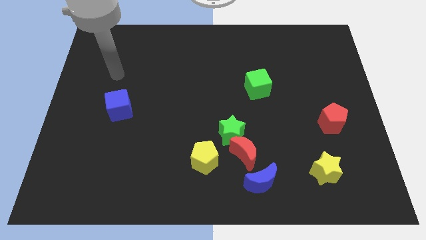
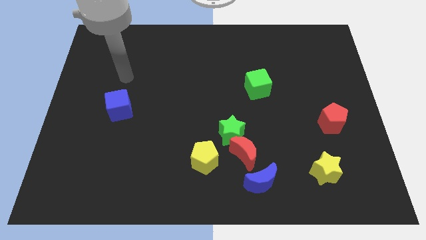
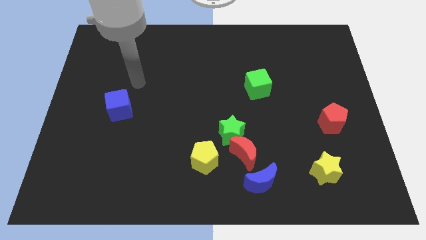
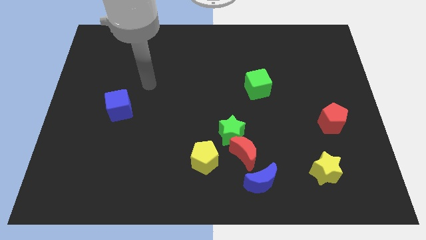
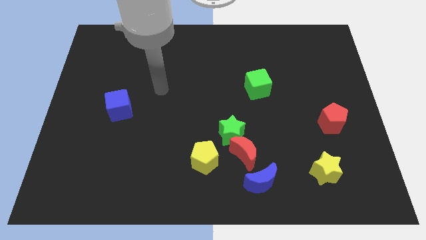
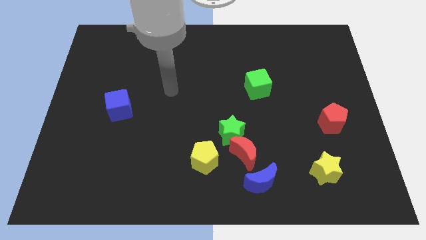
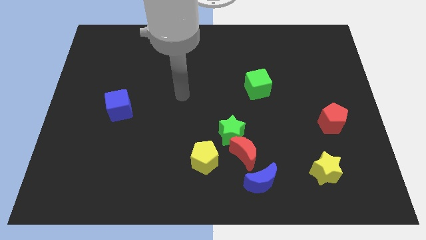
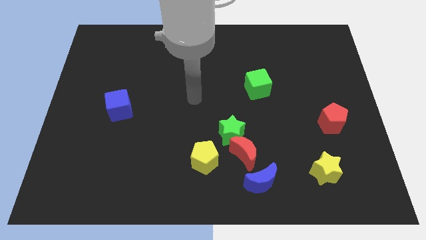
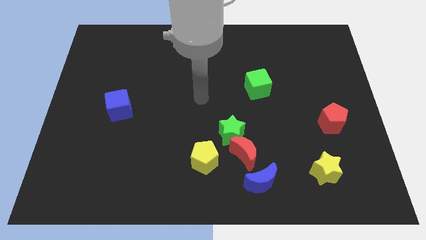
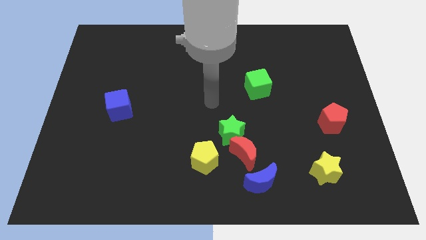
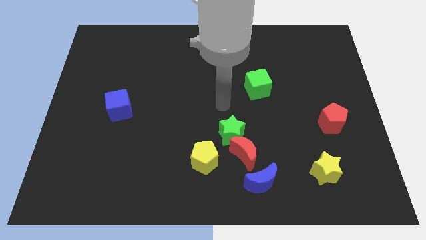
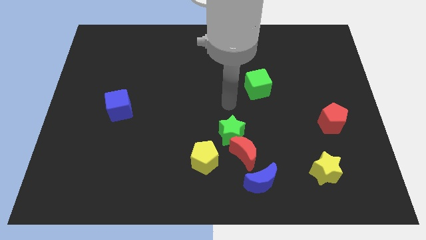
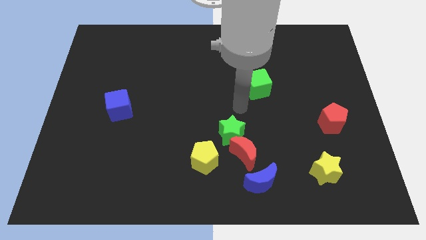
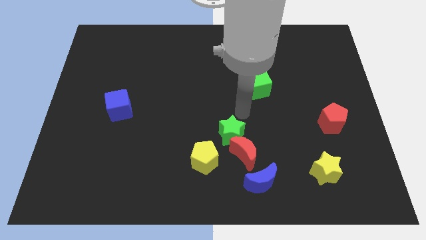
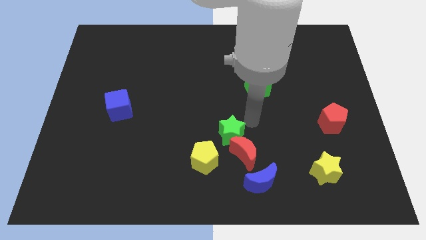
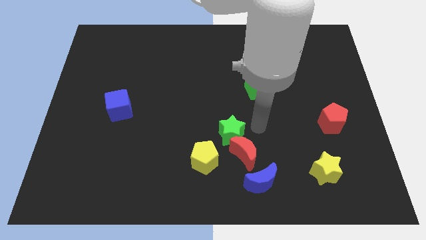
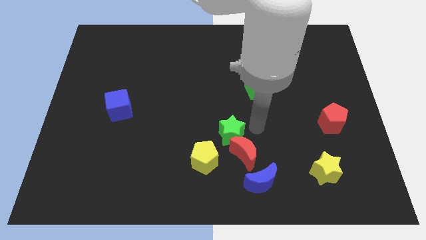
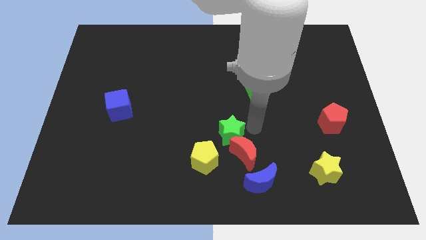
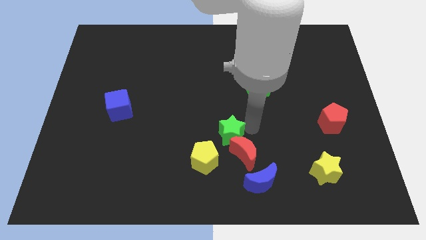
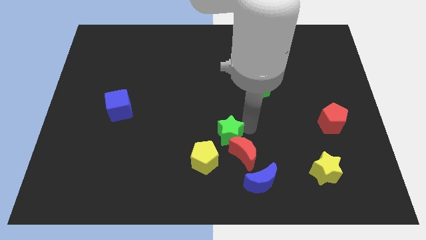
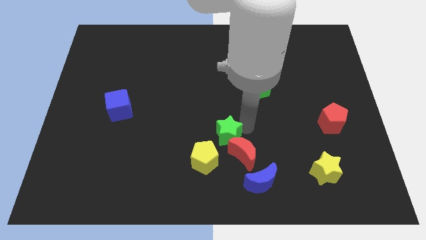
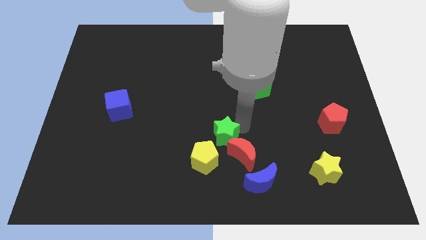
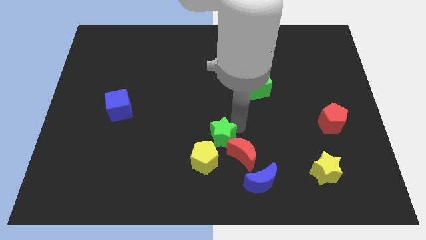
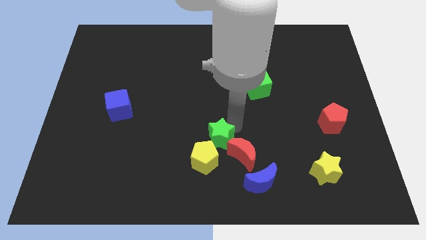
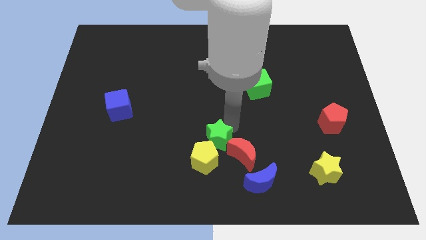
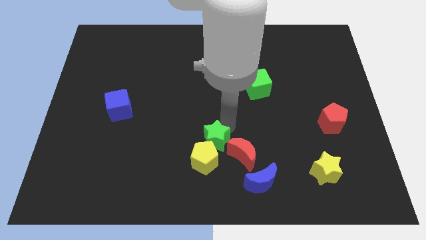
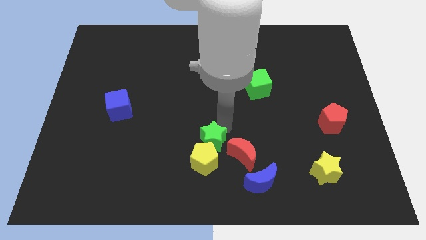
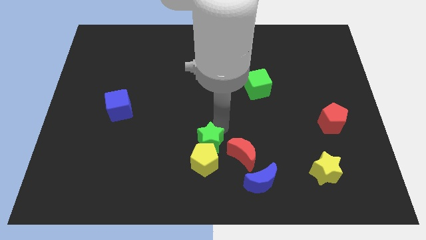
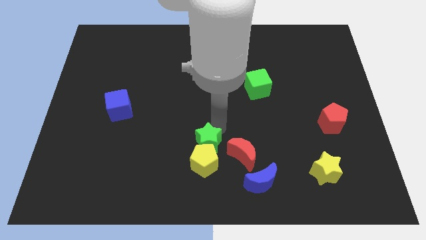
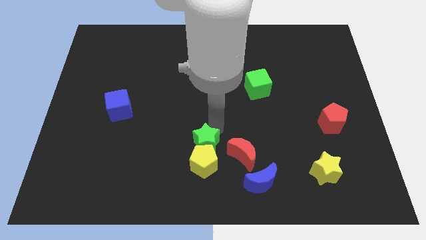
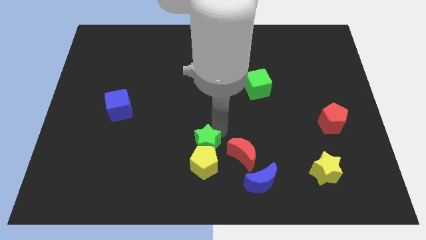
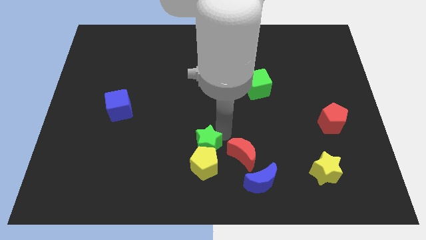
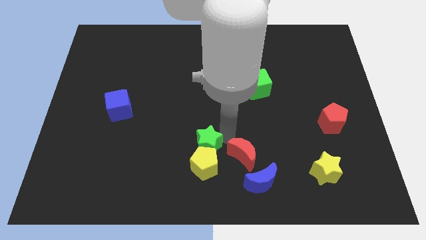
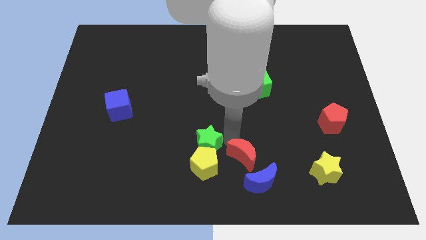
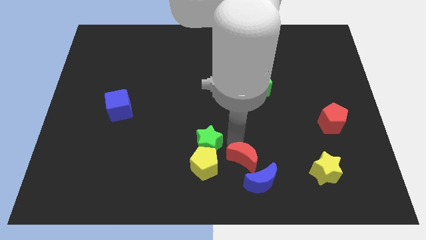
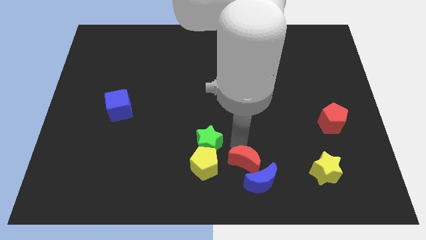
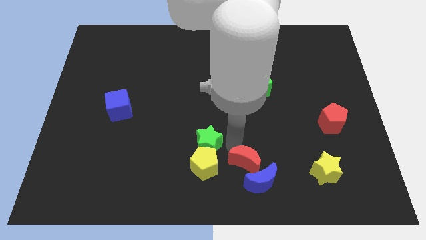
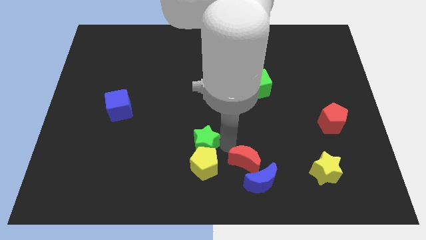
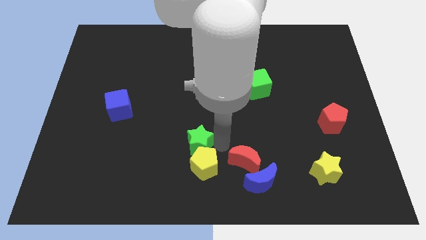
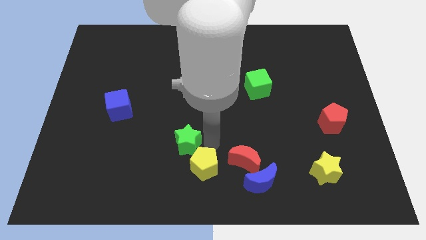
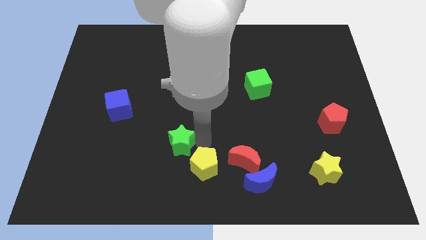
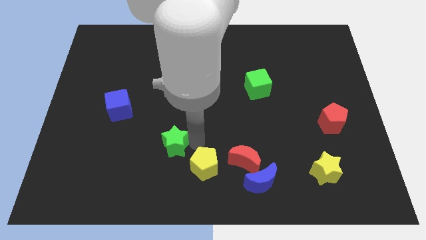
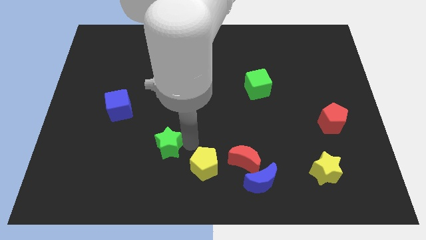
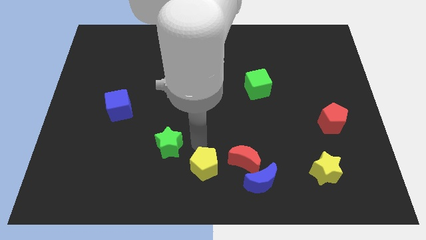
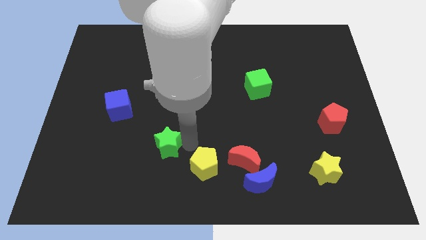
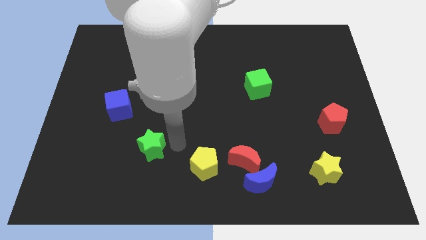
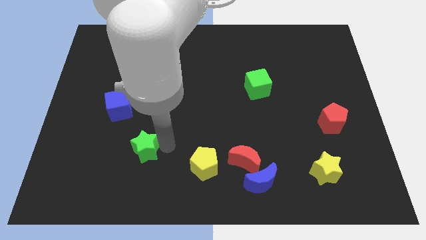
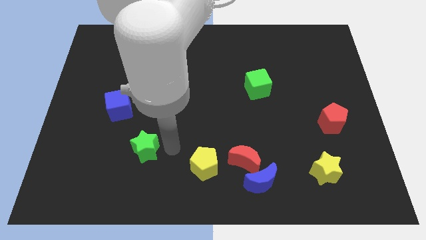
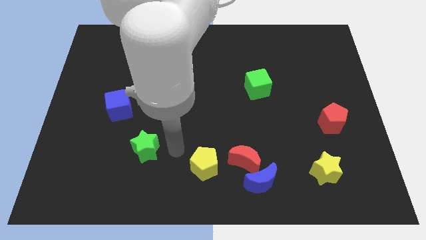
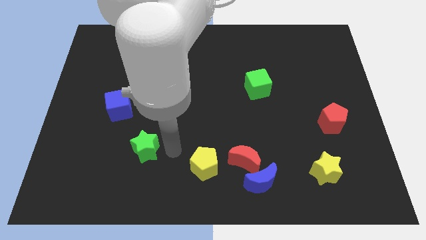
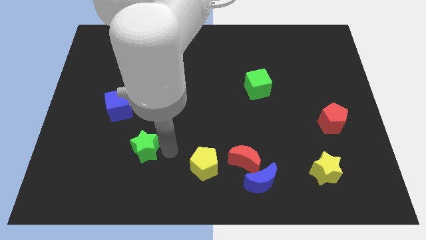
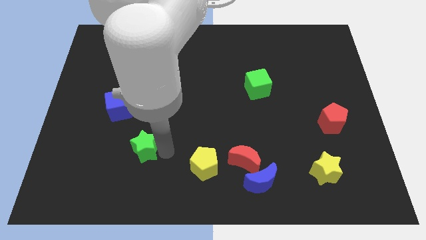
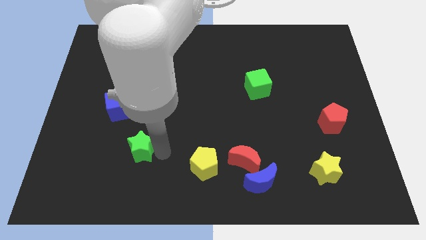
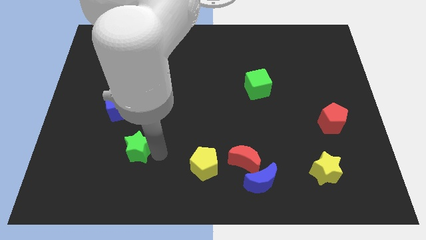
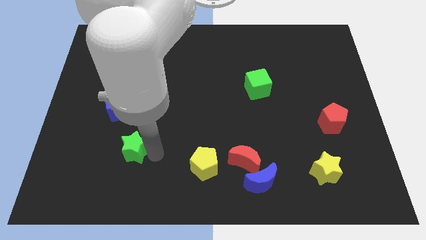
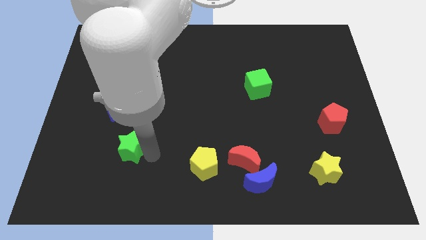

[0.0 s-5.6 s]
put the green star to the bottom side of the blue cube

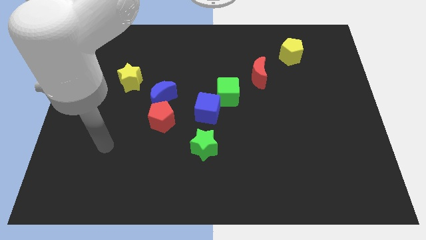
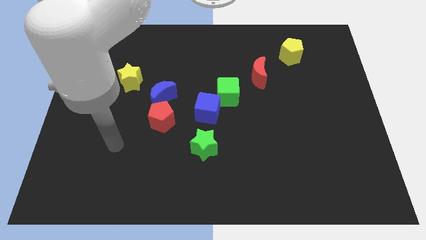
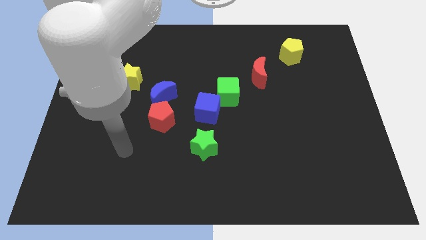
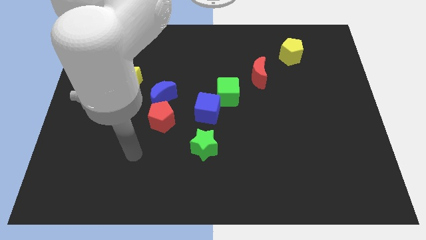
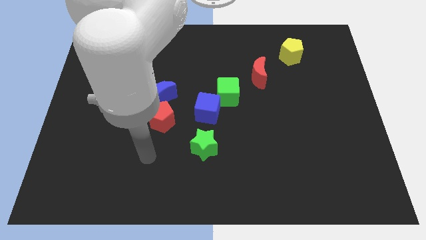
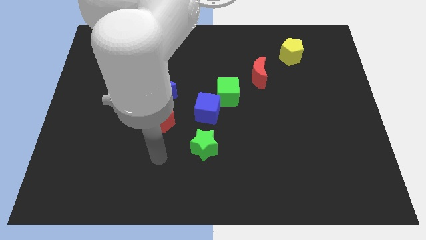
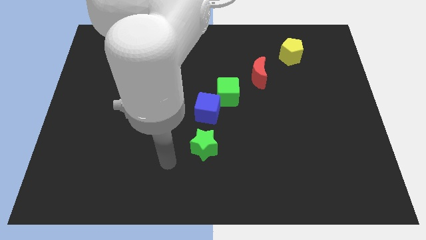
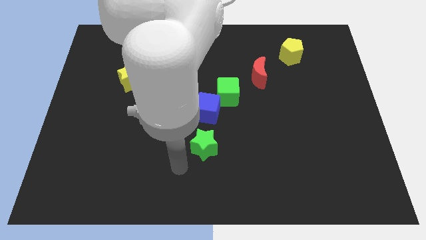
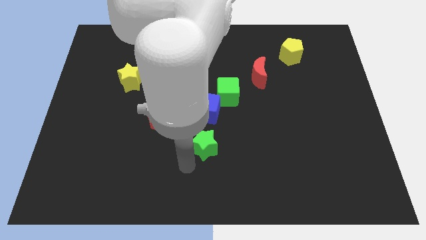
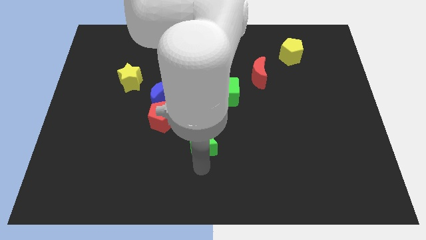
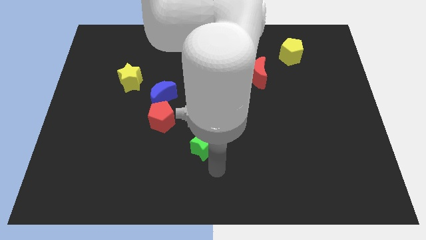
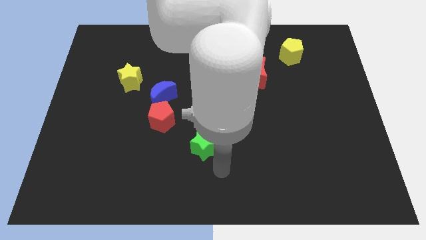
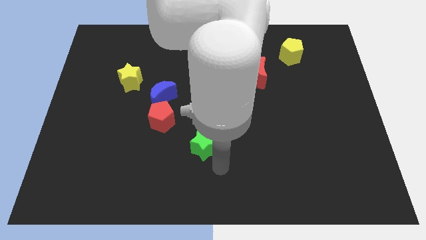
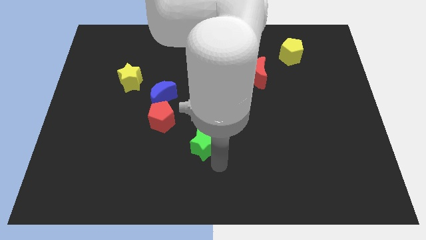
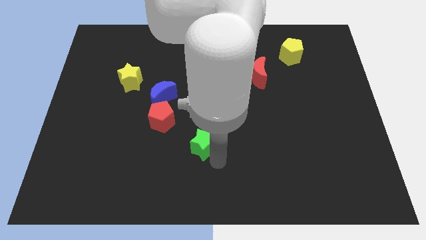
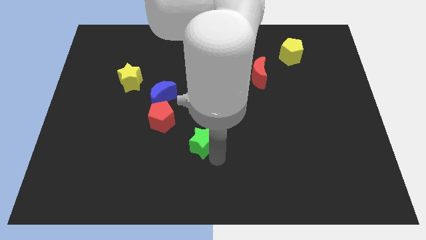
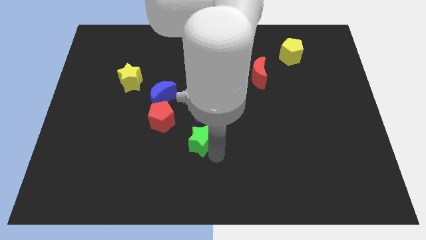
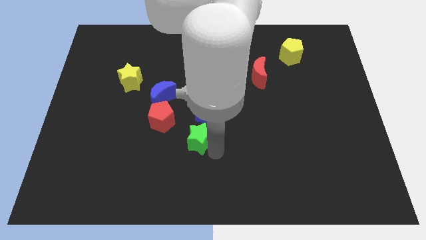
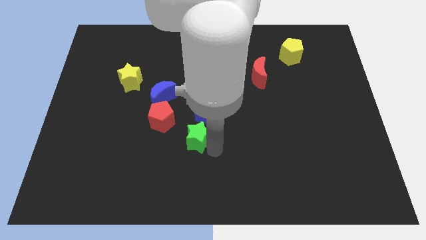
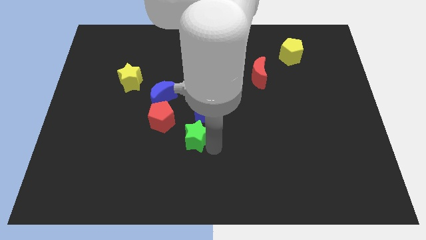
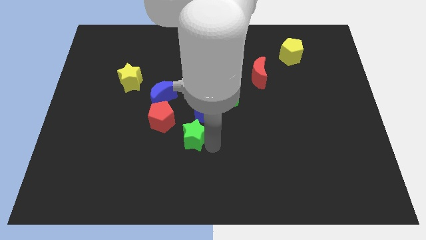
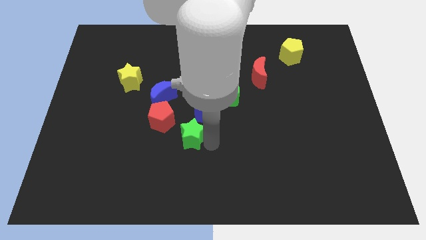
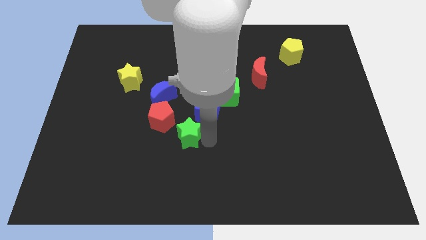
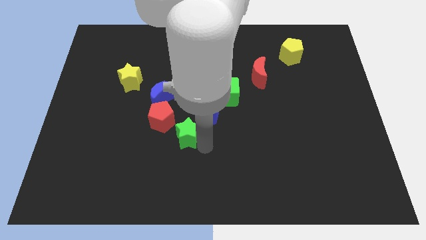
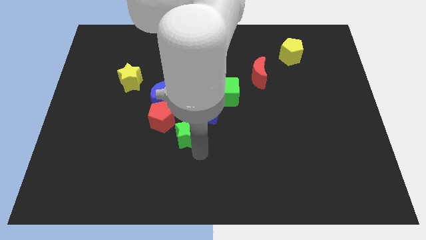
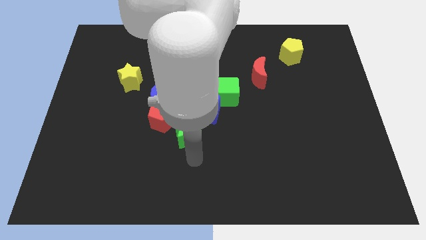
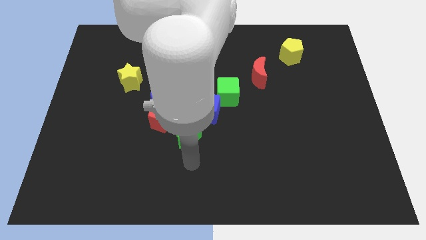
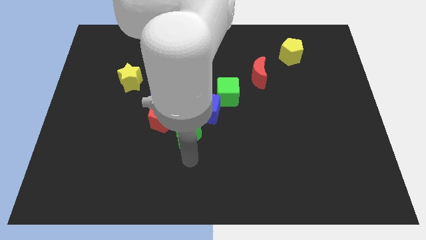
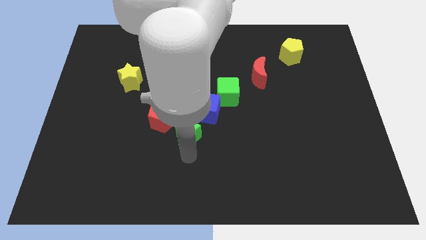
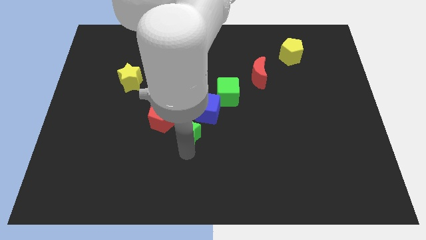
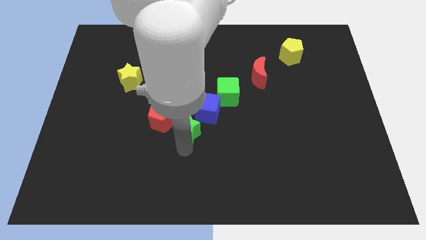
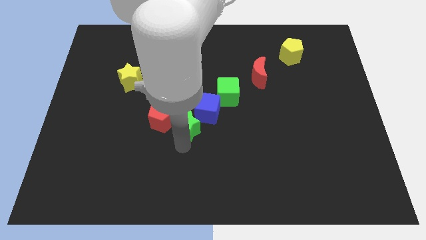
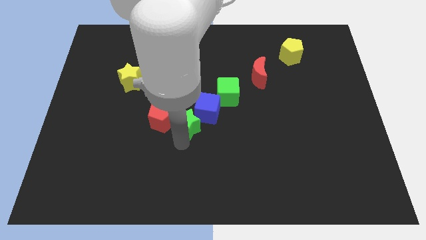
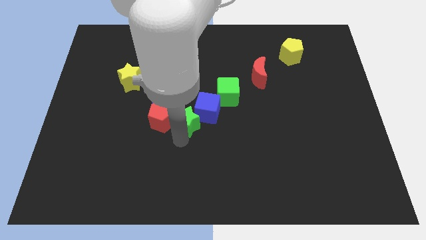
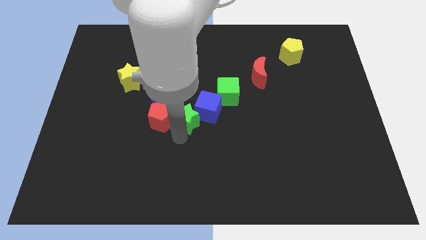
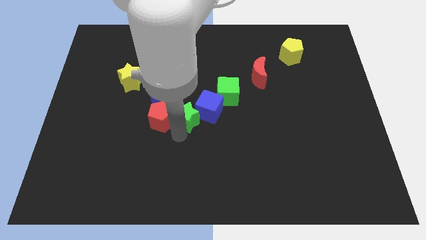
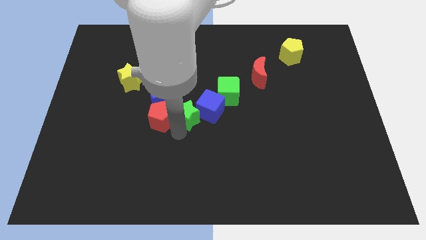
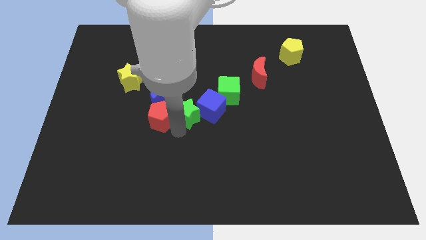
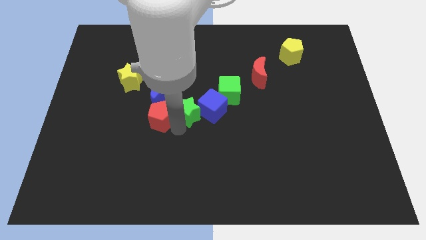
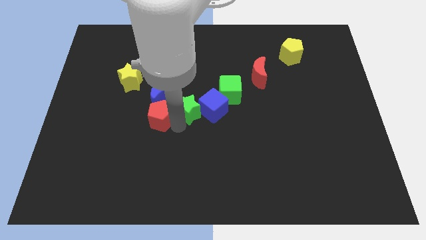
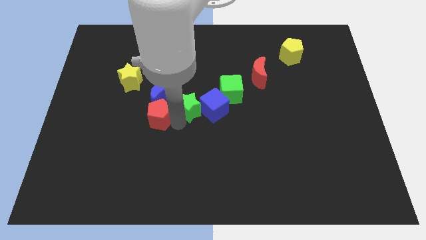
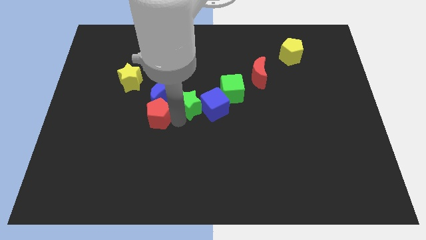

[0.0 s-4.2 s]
slide the green star left of the green cube
